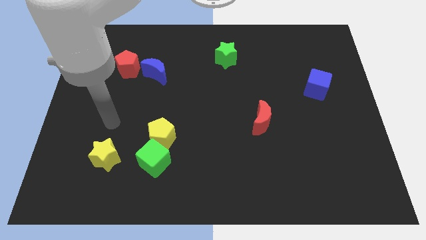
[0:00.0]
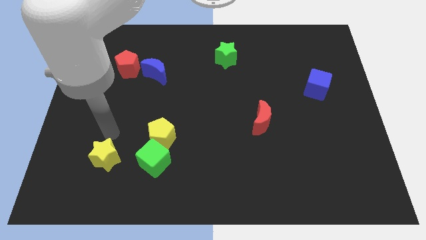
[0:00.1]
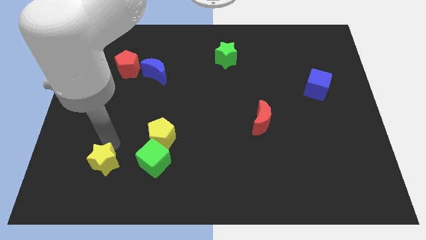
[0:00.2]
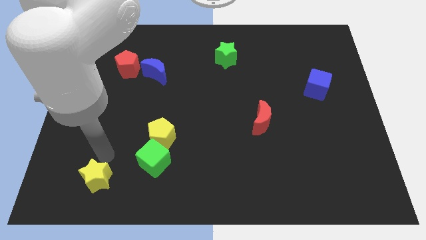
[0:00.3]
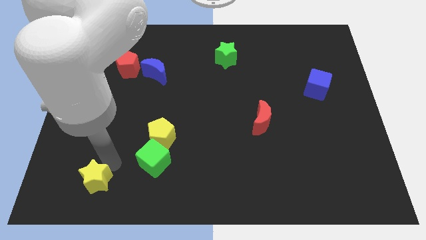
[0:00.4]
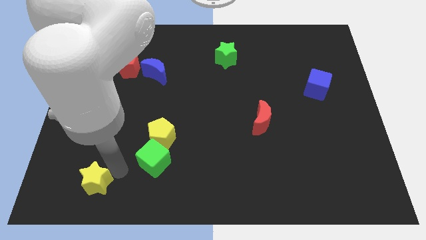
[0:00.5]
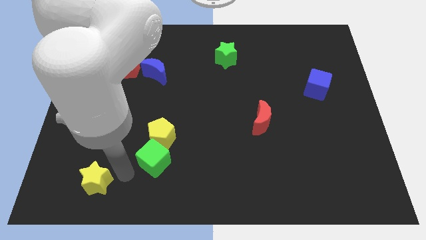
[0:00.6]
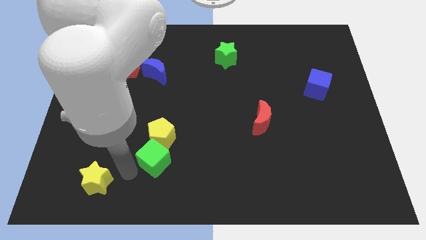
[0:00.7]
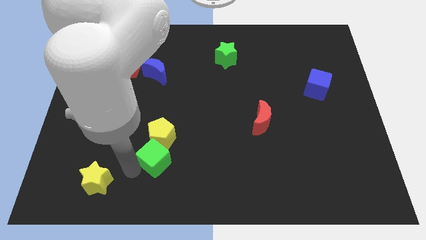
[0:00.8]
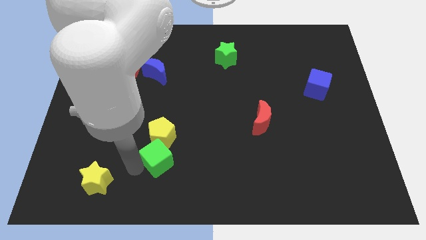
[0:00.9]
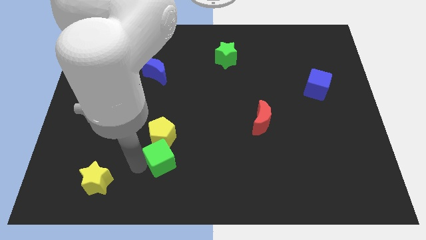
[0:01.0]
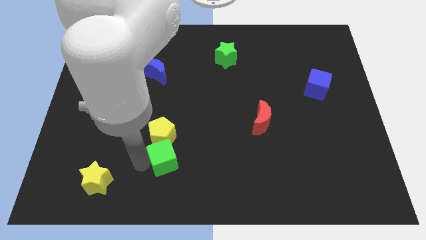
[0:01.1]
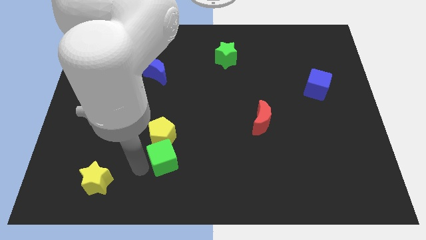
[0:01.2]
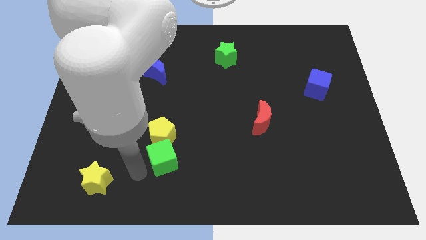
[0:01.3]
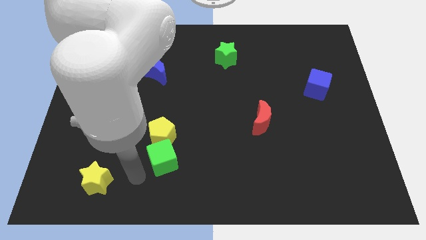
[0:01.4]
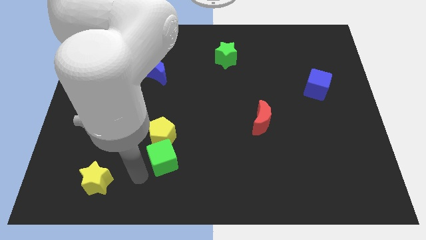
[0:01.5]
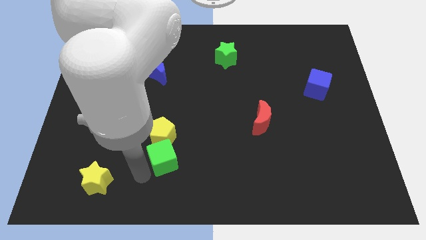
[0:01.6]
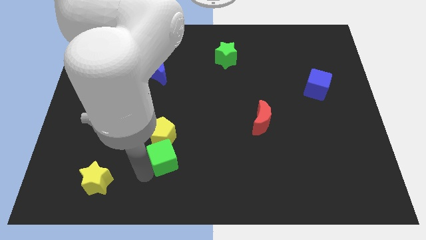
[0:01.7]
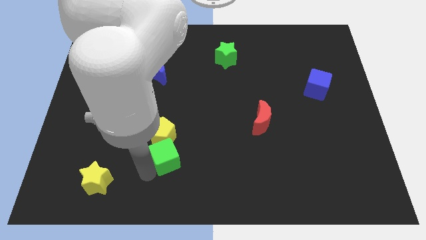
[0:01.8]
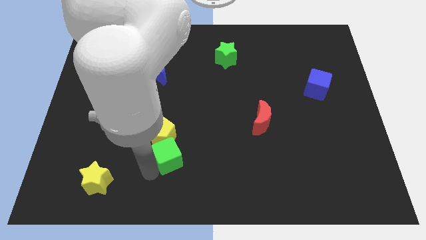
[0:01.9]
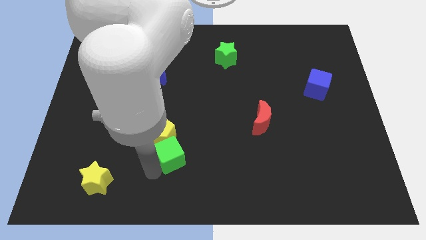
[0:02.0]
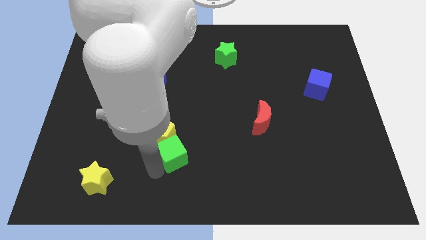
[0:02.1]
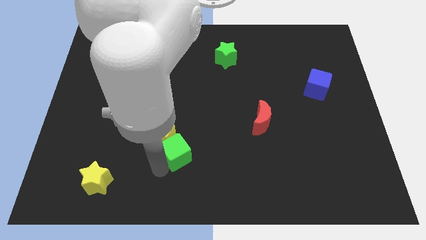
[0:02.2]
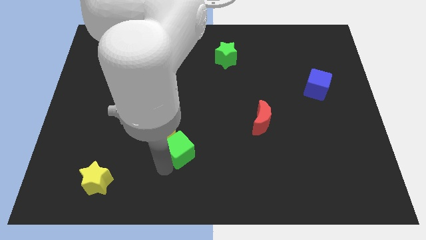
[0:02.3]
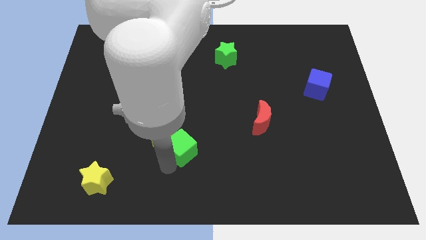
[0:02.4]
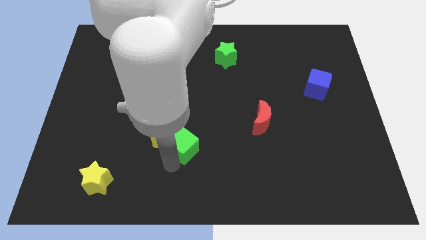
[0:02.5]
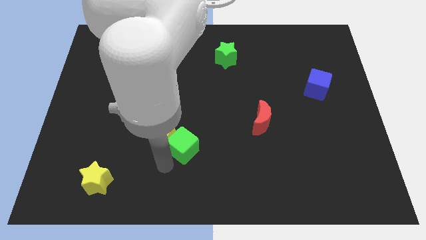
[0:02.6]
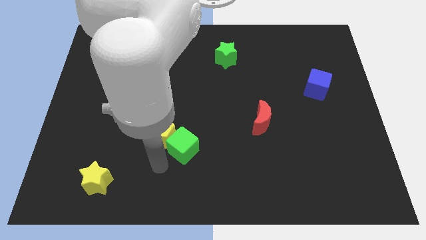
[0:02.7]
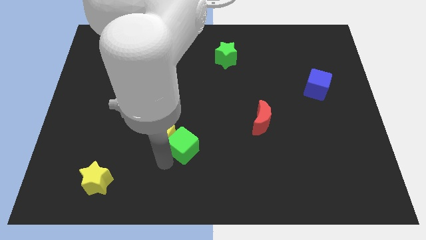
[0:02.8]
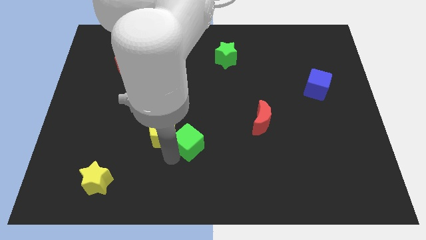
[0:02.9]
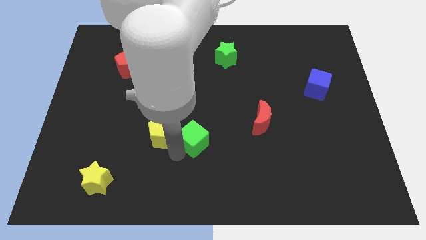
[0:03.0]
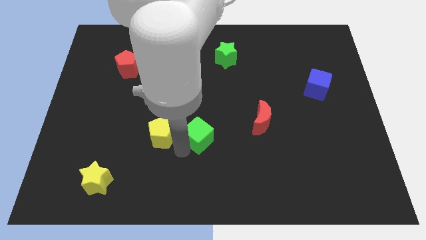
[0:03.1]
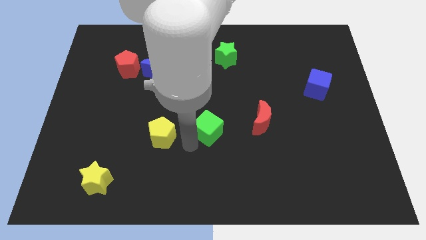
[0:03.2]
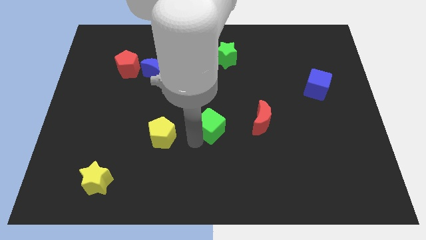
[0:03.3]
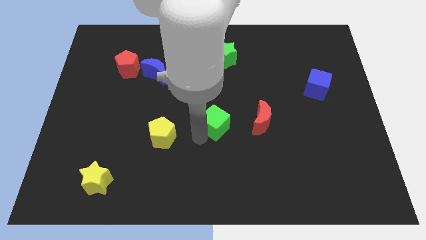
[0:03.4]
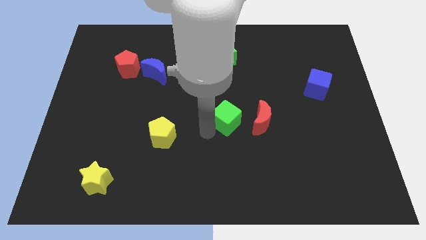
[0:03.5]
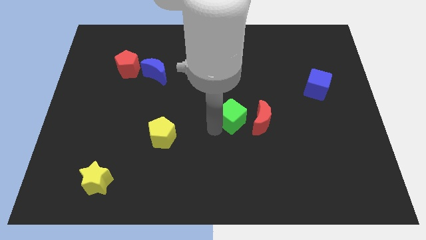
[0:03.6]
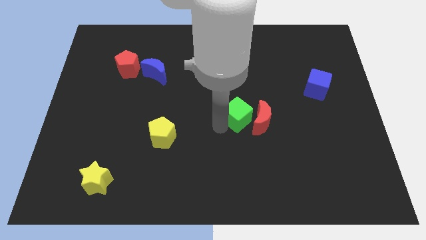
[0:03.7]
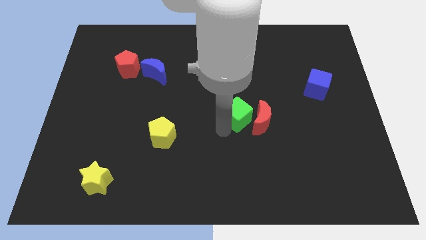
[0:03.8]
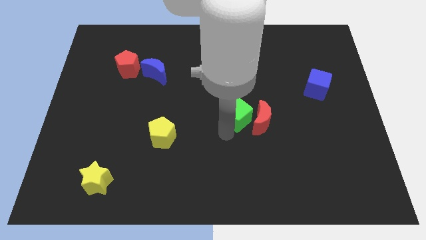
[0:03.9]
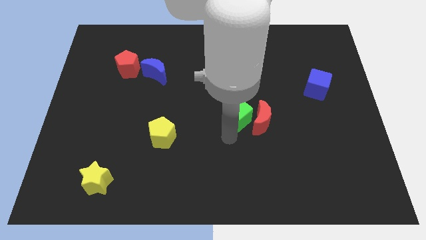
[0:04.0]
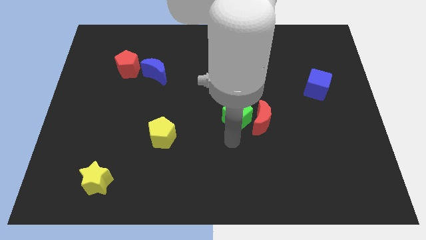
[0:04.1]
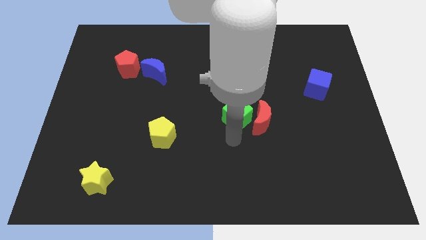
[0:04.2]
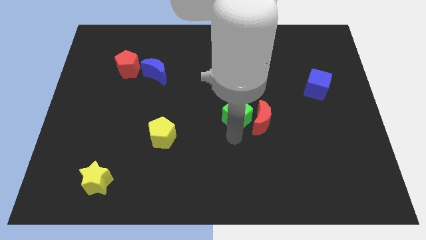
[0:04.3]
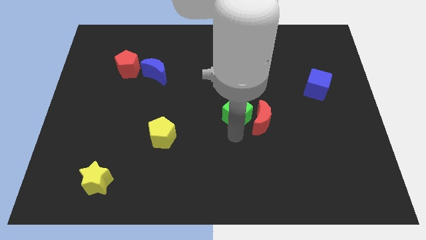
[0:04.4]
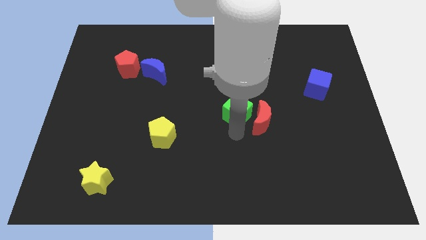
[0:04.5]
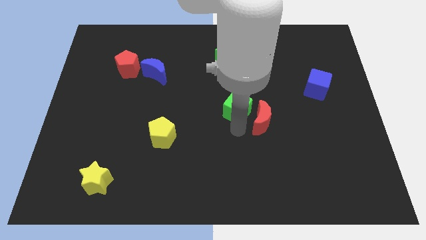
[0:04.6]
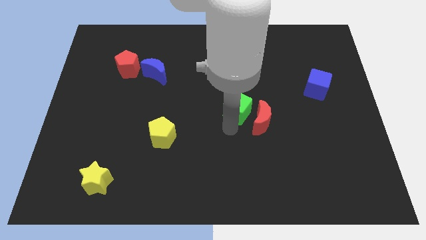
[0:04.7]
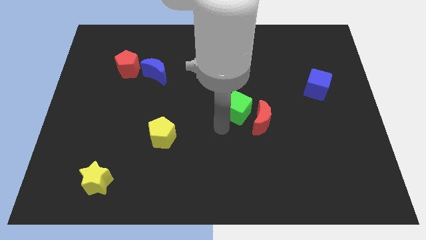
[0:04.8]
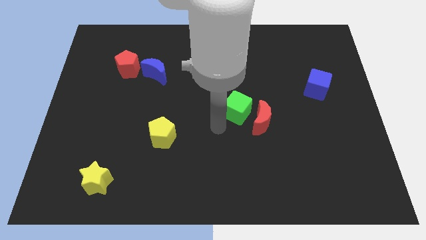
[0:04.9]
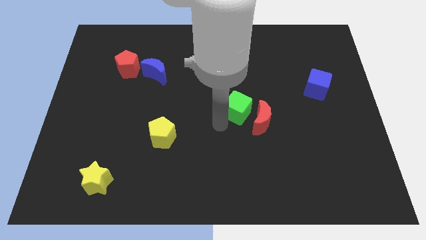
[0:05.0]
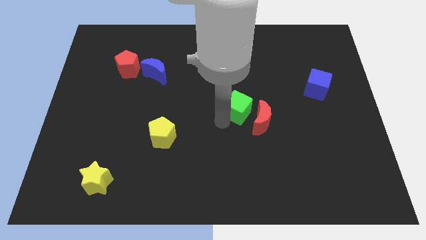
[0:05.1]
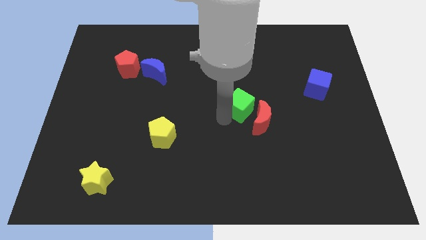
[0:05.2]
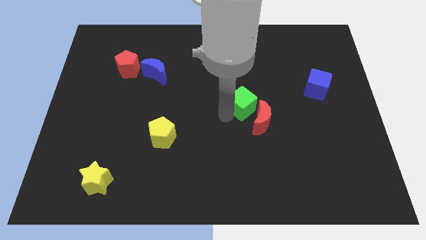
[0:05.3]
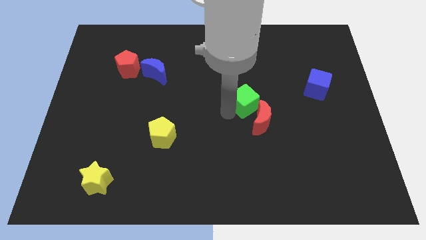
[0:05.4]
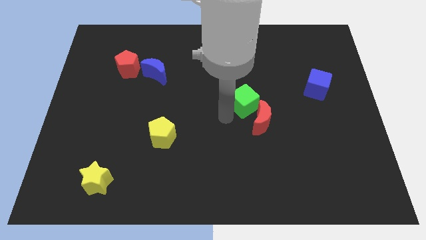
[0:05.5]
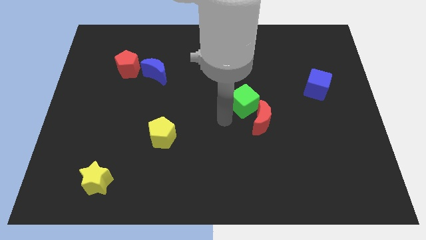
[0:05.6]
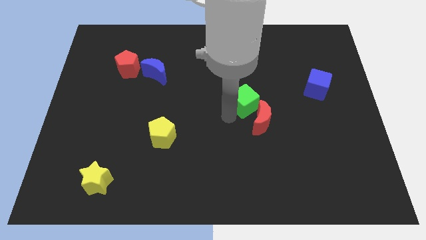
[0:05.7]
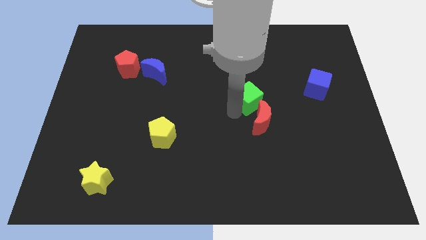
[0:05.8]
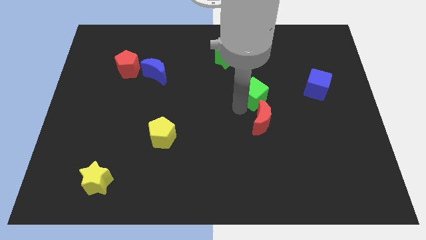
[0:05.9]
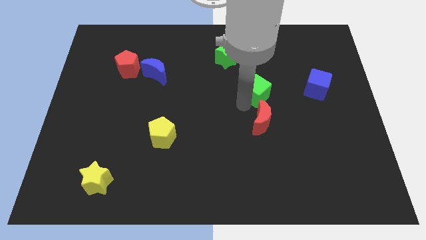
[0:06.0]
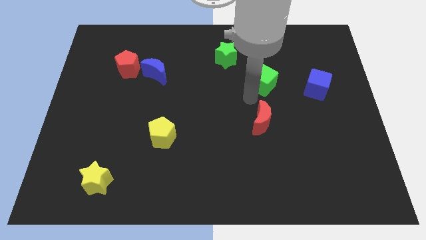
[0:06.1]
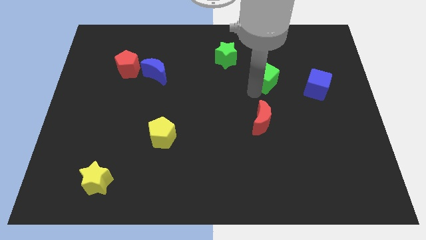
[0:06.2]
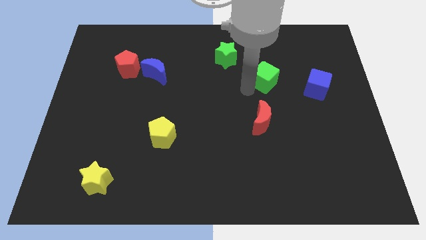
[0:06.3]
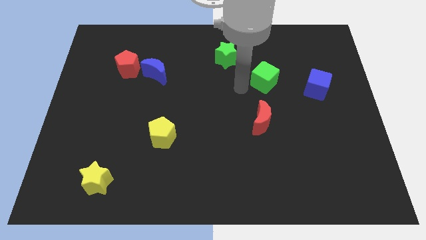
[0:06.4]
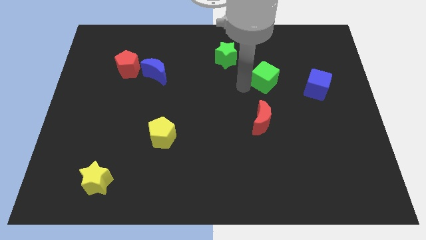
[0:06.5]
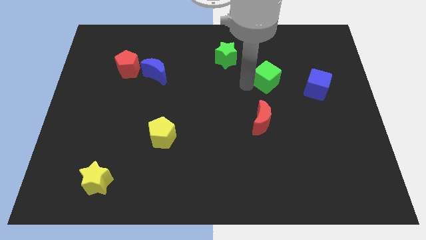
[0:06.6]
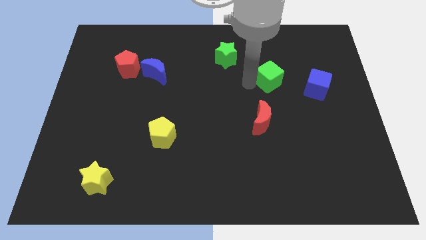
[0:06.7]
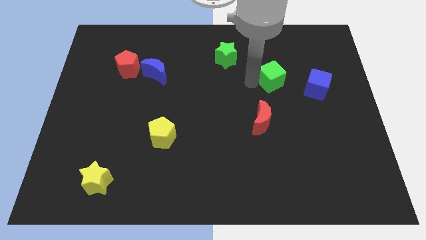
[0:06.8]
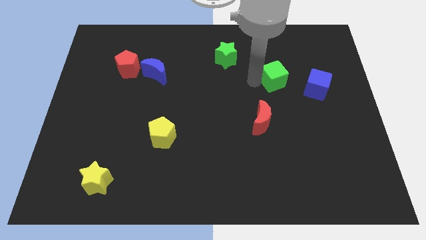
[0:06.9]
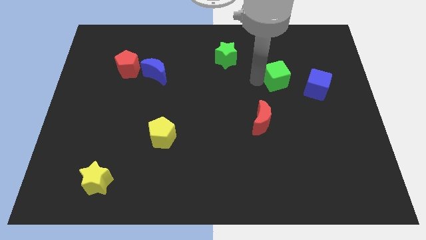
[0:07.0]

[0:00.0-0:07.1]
push the green cube to the top left side of the blue cube
